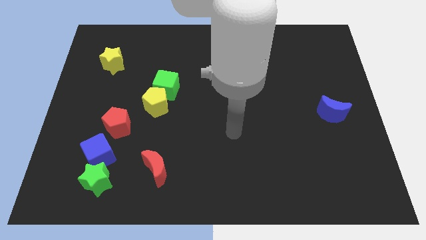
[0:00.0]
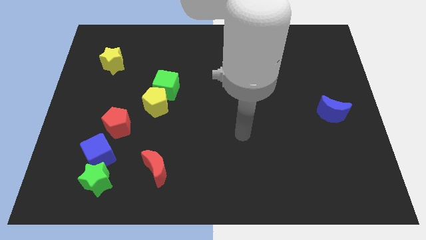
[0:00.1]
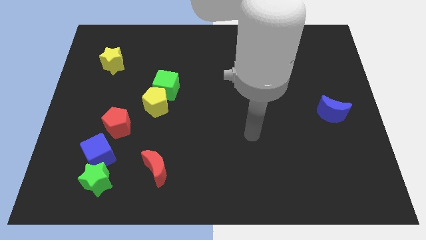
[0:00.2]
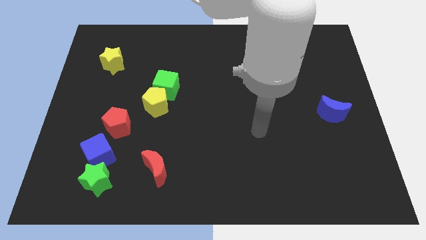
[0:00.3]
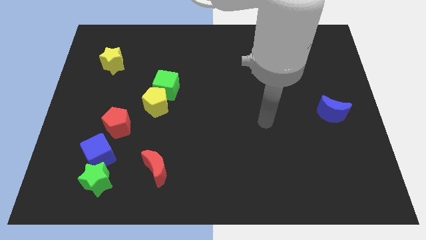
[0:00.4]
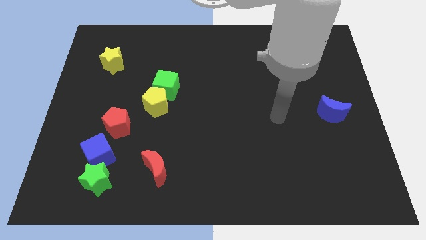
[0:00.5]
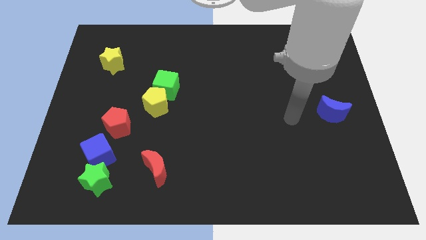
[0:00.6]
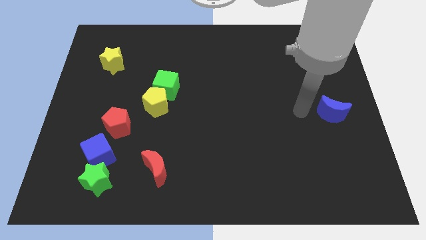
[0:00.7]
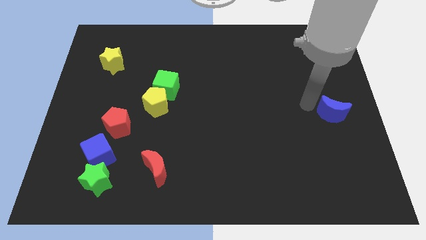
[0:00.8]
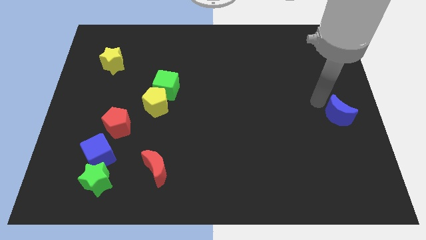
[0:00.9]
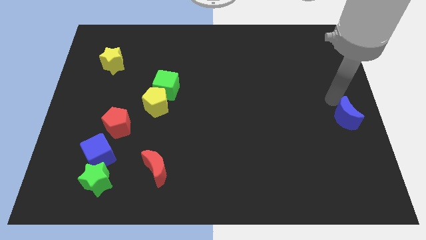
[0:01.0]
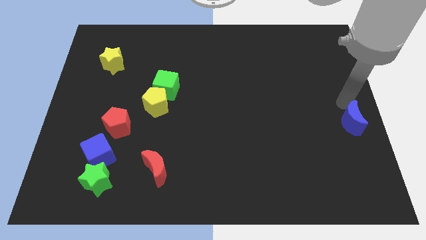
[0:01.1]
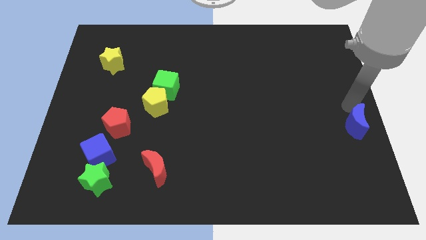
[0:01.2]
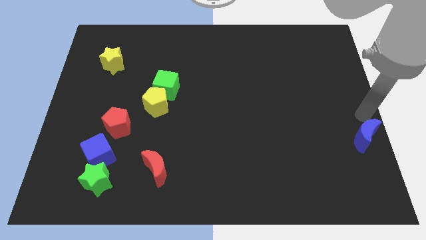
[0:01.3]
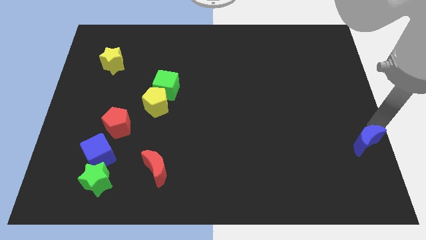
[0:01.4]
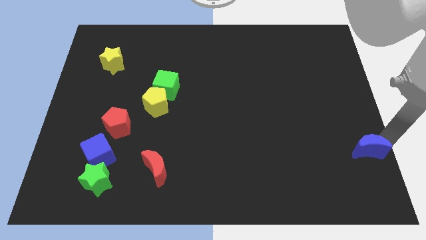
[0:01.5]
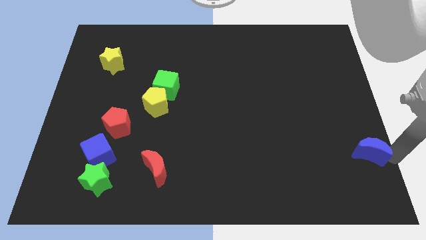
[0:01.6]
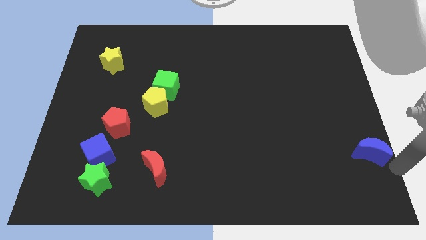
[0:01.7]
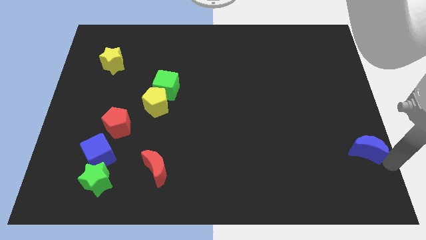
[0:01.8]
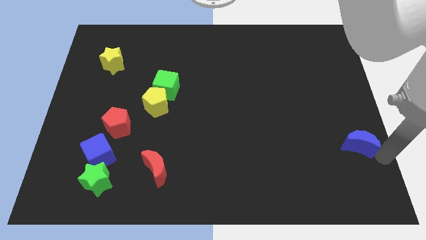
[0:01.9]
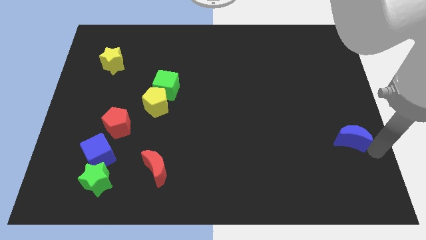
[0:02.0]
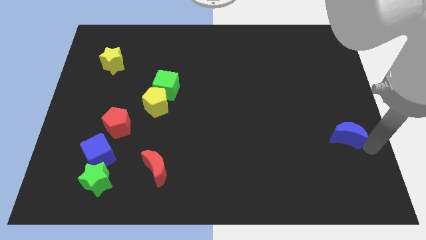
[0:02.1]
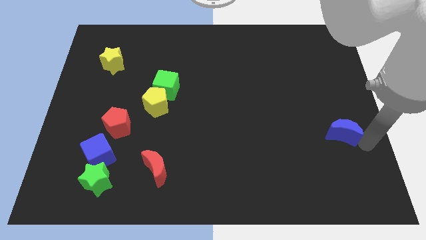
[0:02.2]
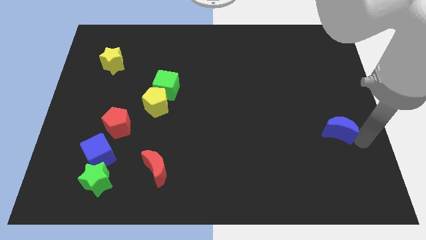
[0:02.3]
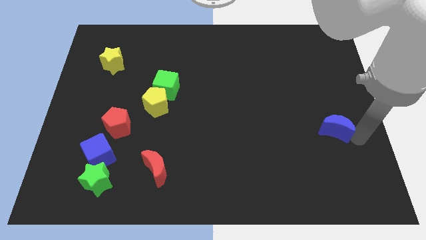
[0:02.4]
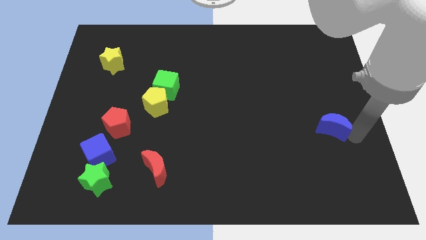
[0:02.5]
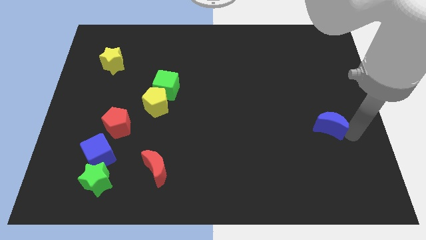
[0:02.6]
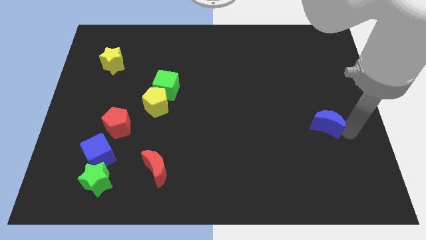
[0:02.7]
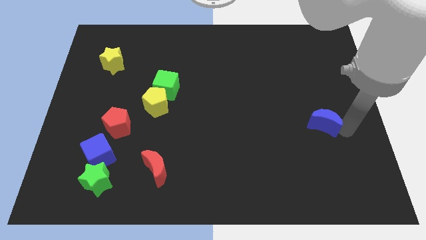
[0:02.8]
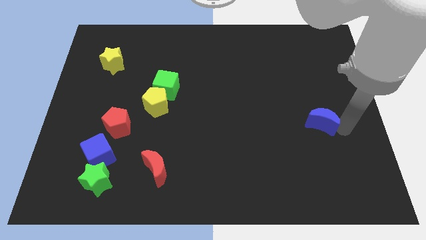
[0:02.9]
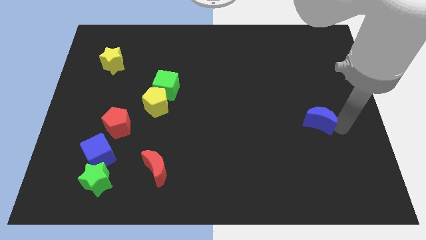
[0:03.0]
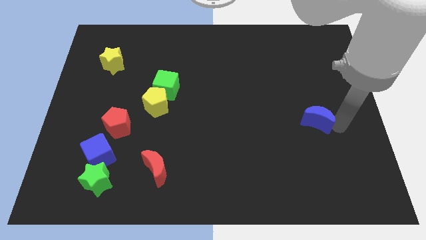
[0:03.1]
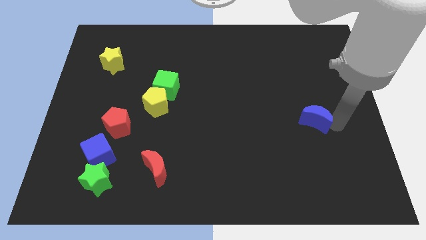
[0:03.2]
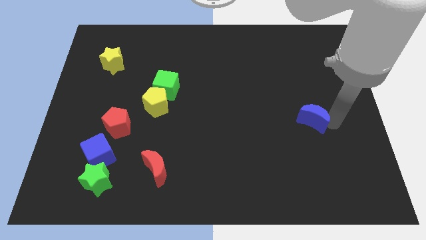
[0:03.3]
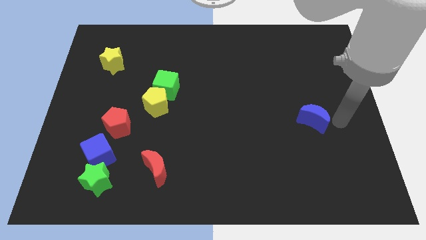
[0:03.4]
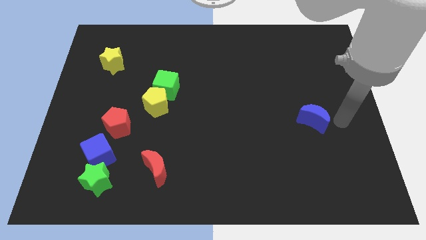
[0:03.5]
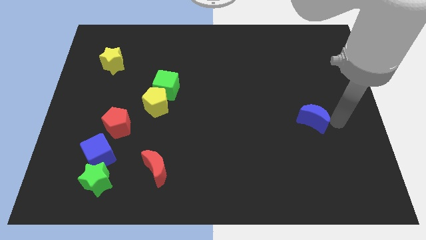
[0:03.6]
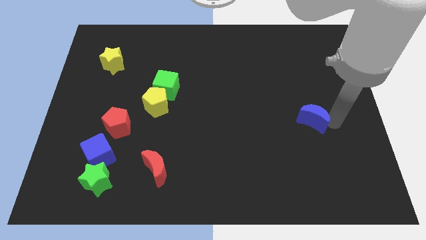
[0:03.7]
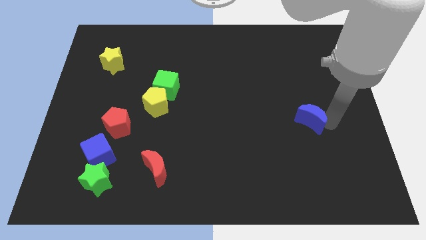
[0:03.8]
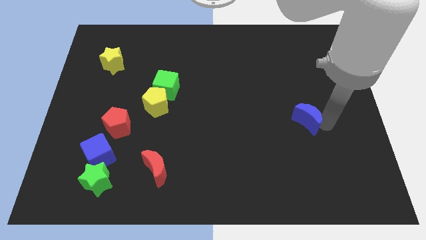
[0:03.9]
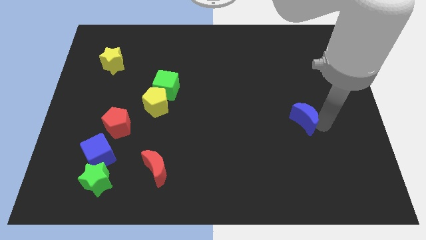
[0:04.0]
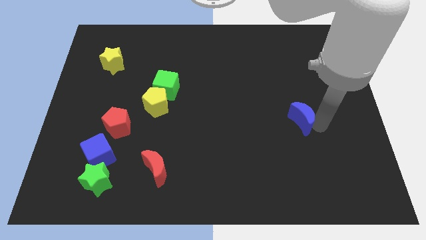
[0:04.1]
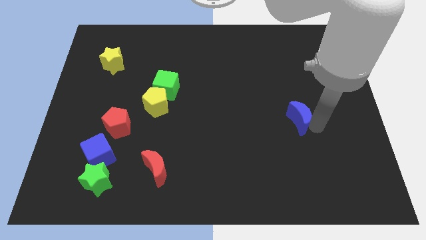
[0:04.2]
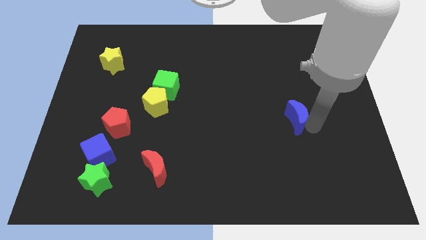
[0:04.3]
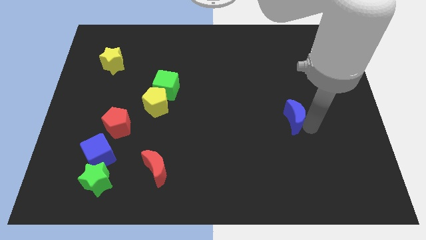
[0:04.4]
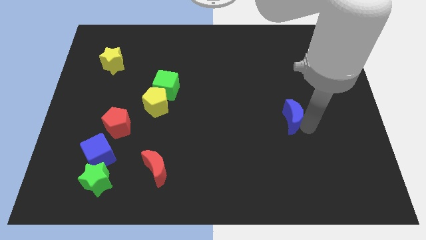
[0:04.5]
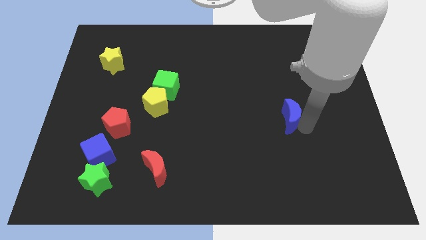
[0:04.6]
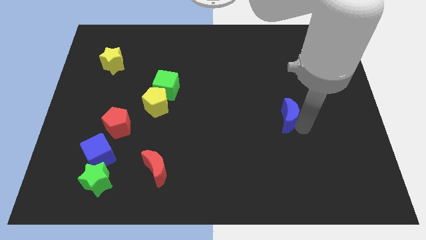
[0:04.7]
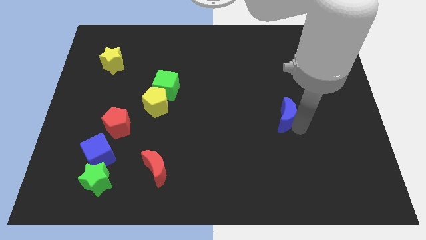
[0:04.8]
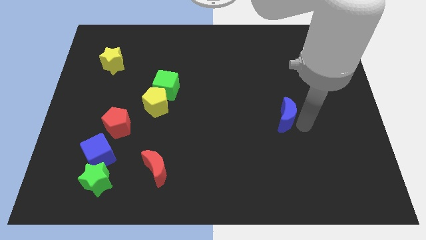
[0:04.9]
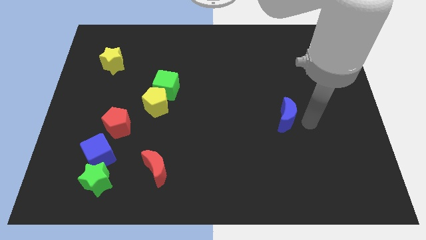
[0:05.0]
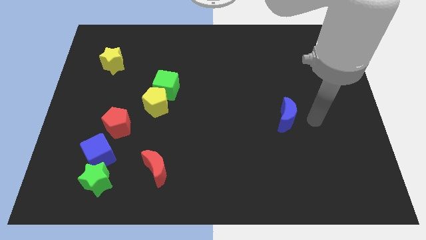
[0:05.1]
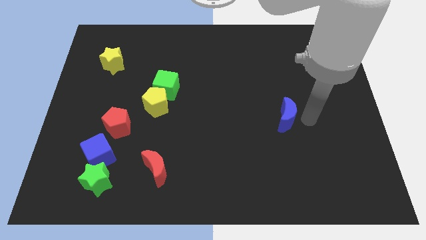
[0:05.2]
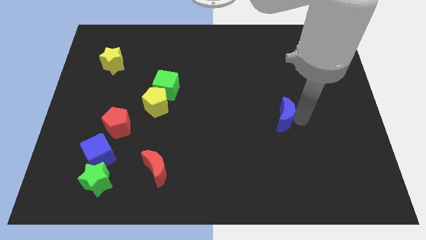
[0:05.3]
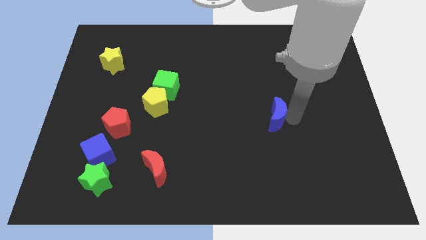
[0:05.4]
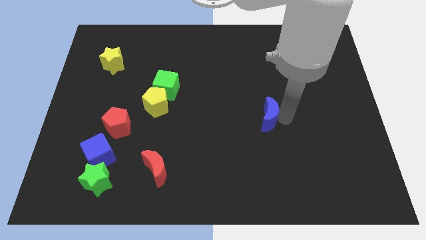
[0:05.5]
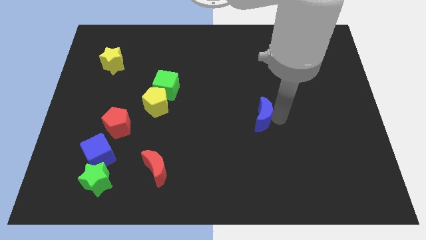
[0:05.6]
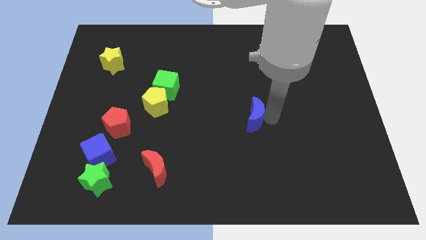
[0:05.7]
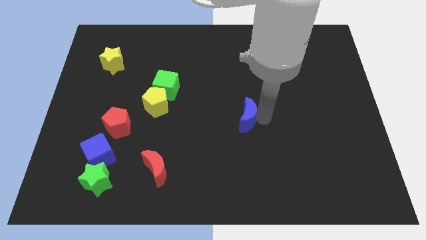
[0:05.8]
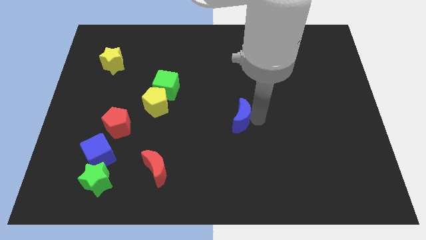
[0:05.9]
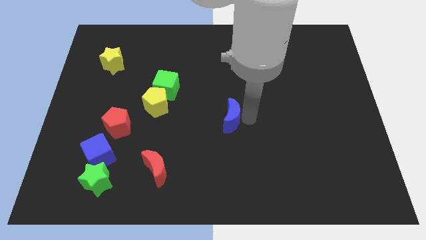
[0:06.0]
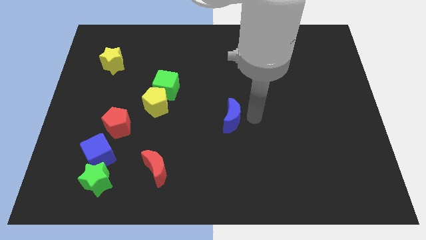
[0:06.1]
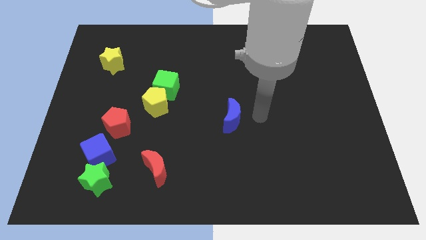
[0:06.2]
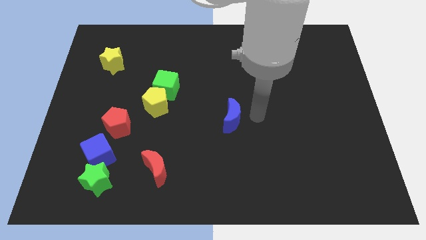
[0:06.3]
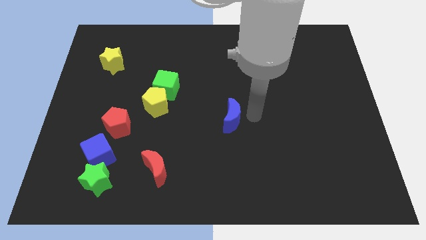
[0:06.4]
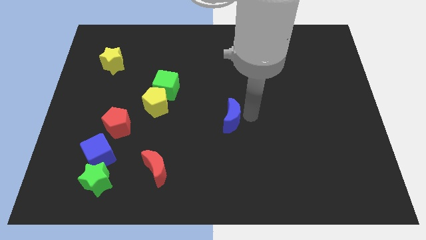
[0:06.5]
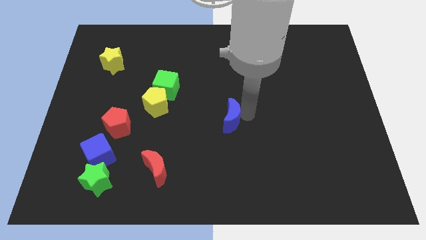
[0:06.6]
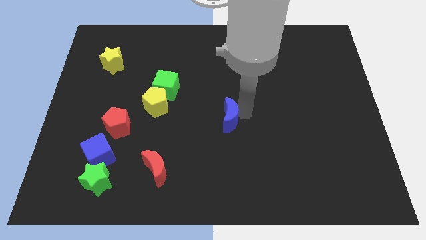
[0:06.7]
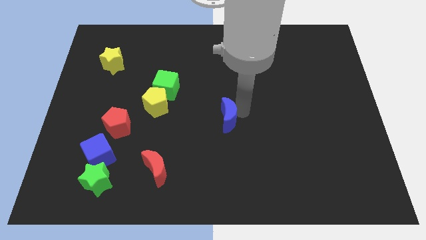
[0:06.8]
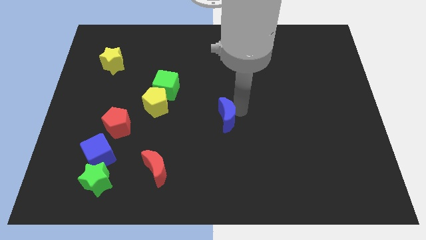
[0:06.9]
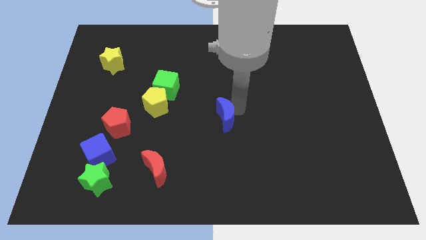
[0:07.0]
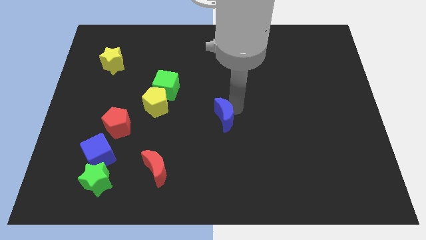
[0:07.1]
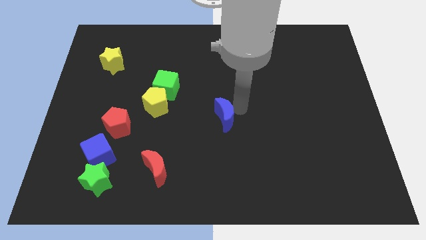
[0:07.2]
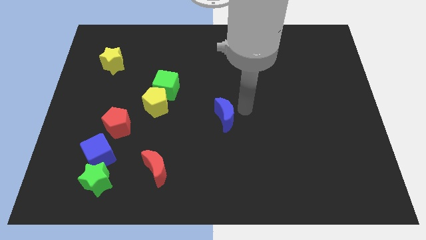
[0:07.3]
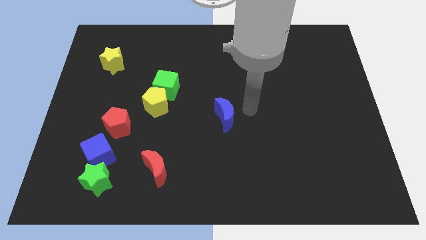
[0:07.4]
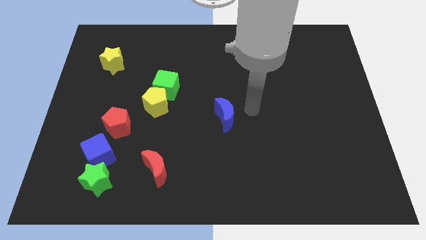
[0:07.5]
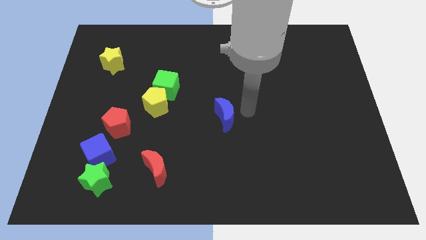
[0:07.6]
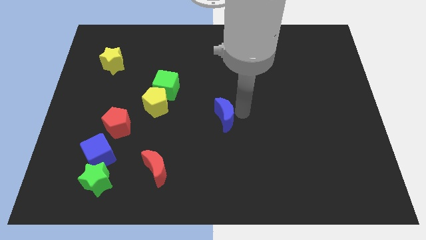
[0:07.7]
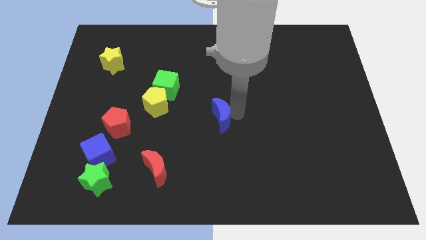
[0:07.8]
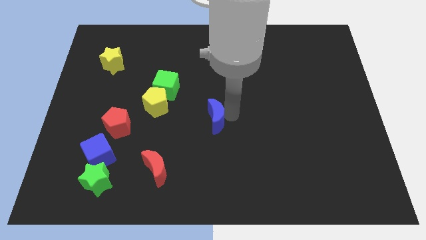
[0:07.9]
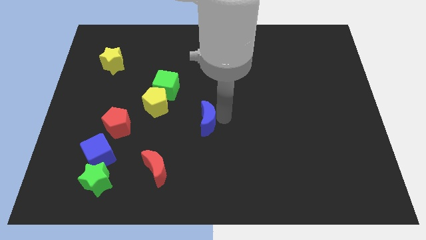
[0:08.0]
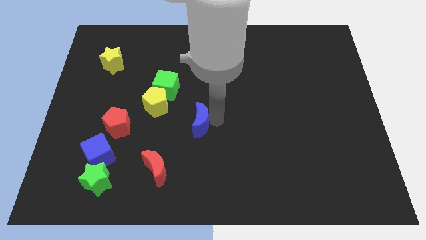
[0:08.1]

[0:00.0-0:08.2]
put the blue moon diagonally down and to the right of the yellow pentagon
